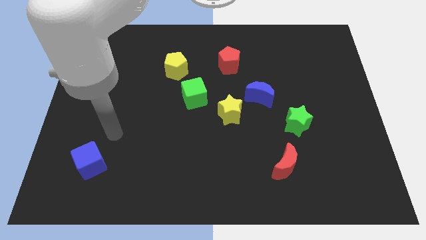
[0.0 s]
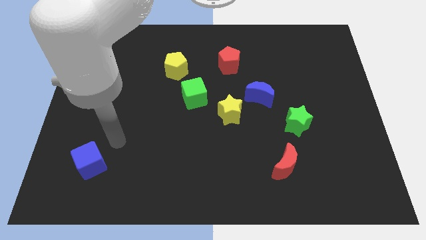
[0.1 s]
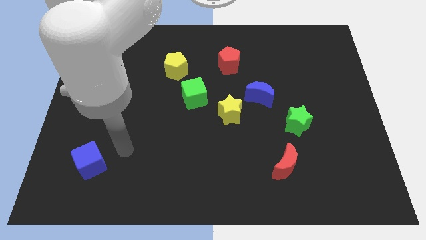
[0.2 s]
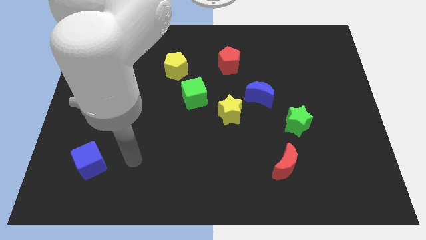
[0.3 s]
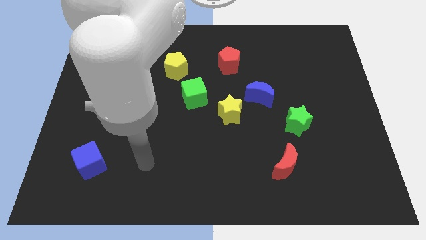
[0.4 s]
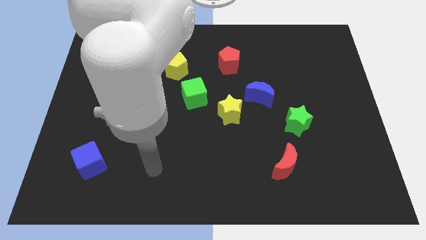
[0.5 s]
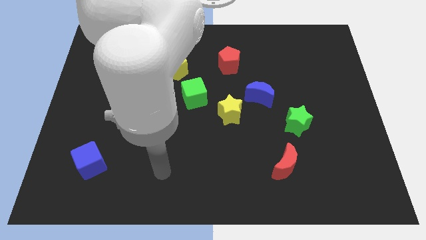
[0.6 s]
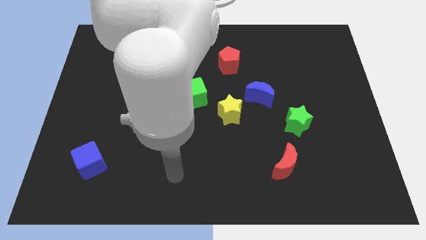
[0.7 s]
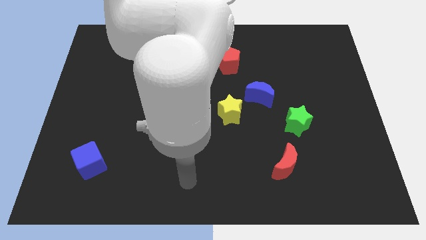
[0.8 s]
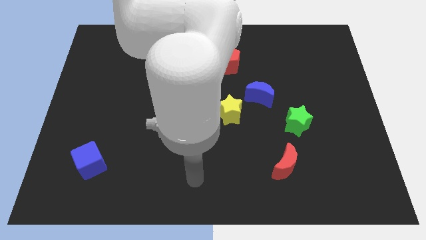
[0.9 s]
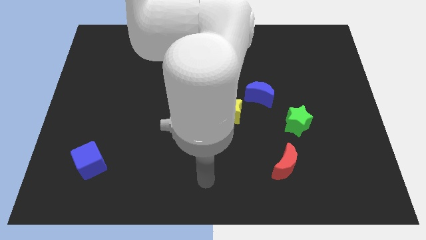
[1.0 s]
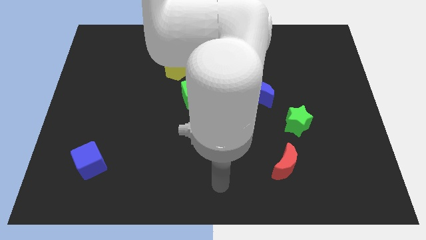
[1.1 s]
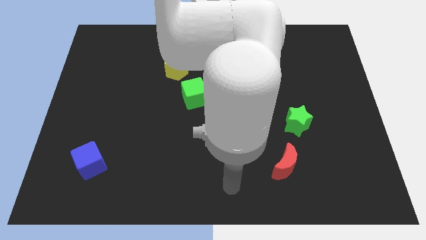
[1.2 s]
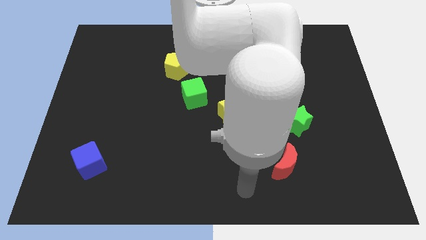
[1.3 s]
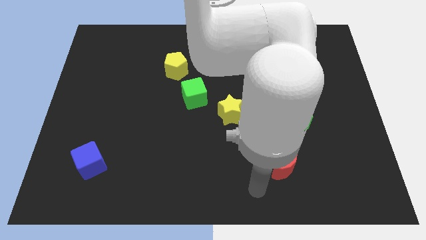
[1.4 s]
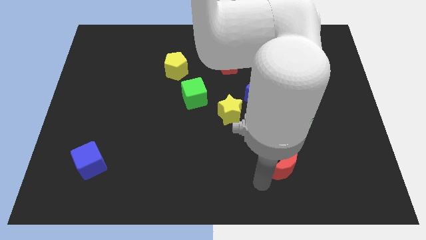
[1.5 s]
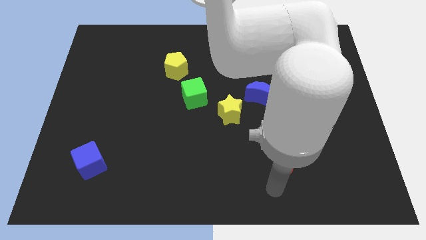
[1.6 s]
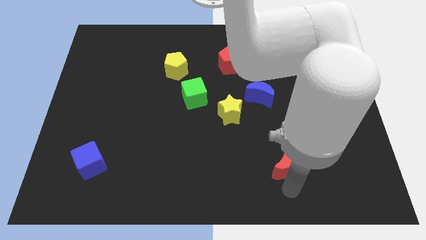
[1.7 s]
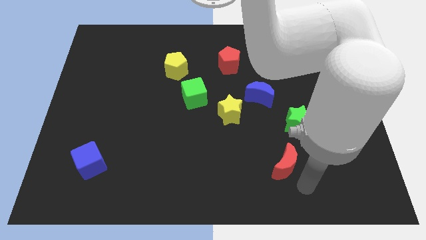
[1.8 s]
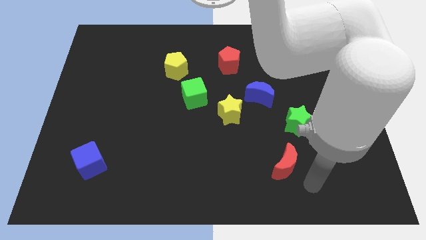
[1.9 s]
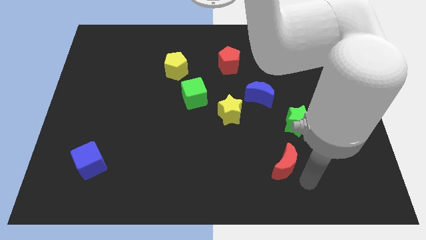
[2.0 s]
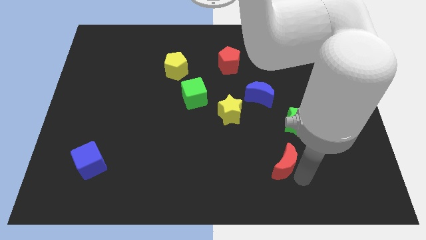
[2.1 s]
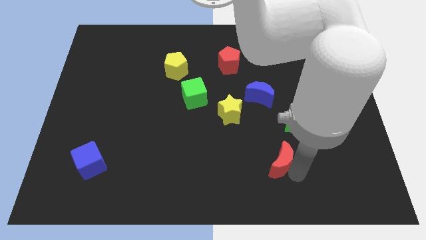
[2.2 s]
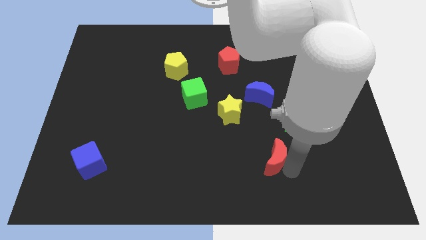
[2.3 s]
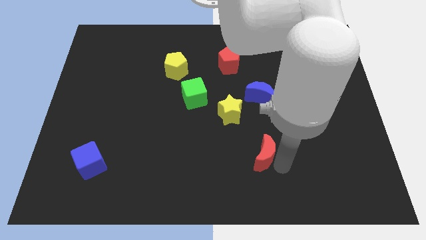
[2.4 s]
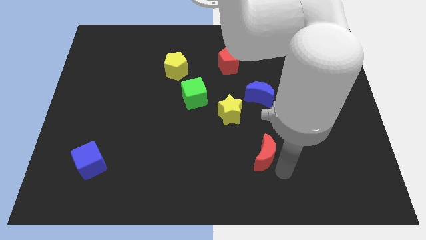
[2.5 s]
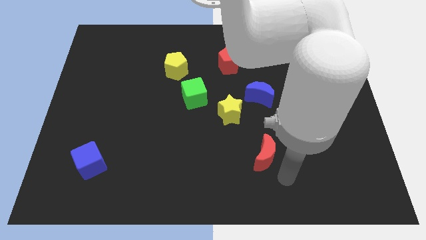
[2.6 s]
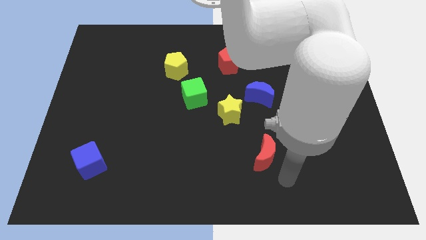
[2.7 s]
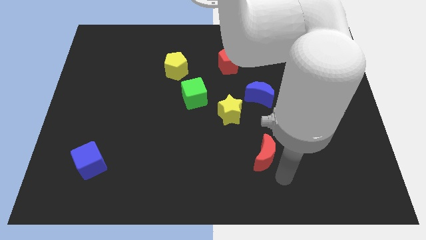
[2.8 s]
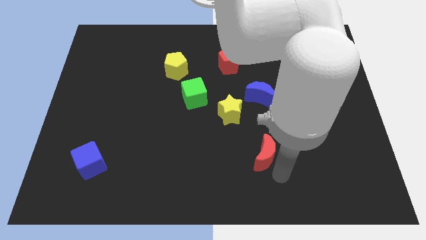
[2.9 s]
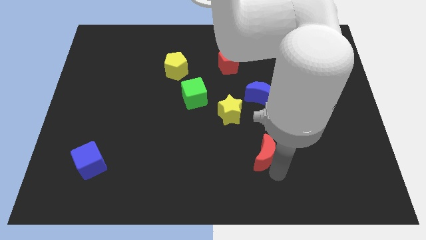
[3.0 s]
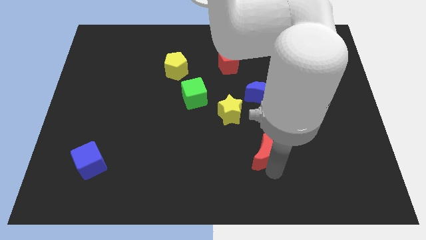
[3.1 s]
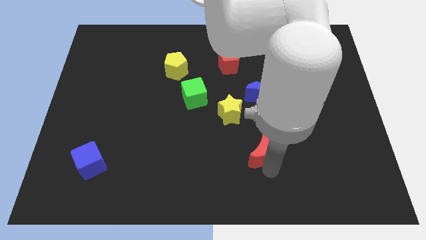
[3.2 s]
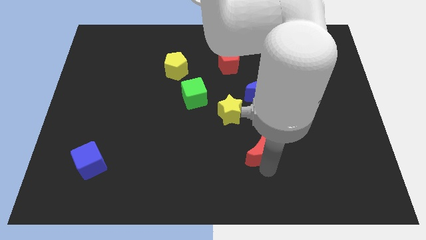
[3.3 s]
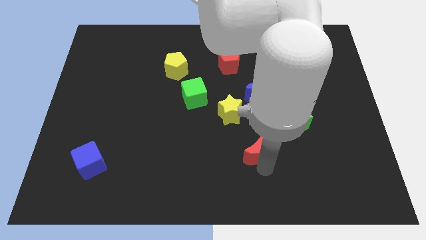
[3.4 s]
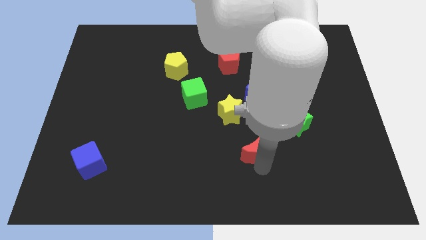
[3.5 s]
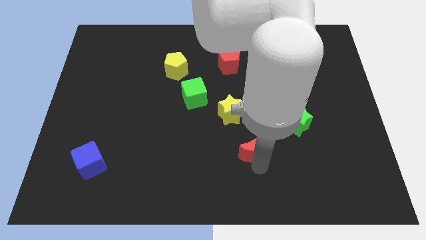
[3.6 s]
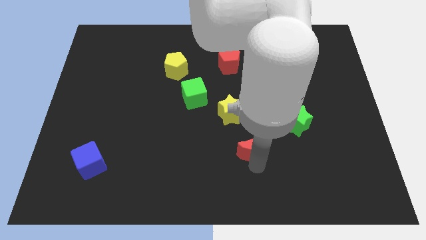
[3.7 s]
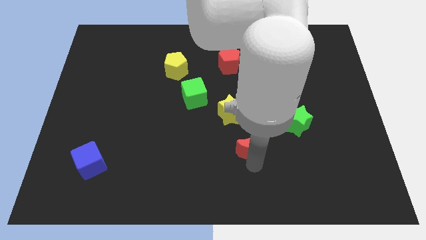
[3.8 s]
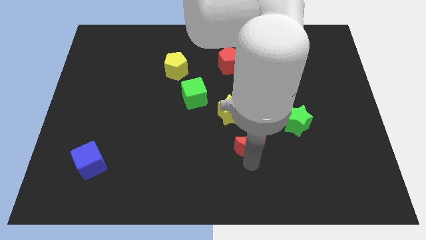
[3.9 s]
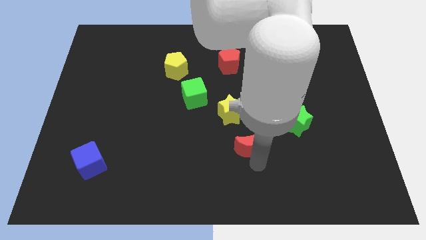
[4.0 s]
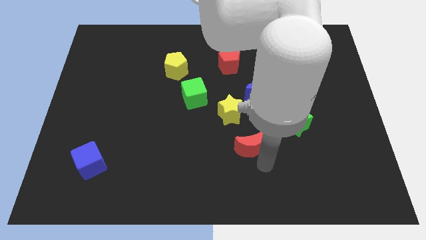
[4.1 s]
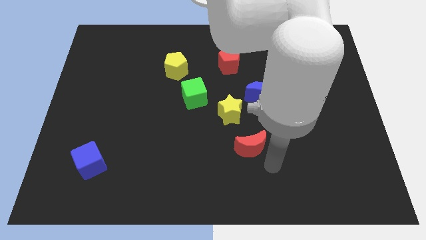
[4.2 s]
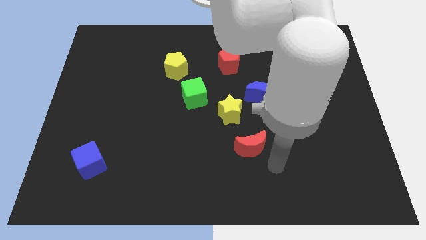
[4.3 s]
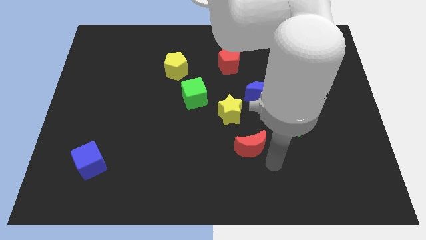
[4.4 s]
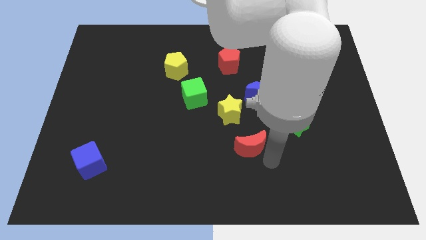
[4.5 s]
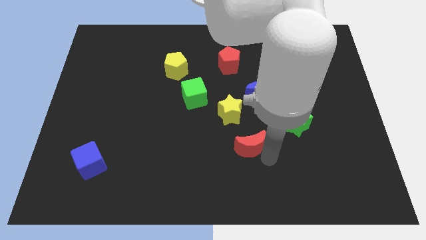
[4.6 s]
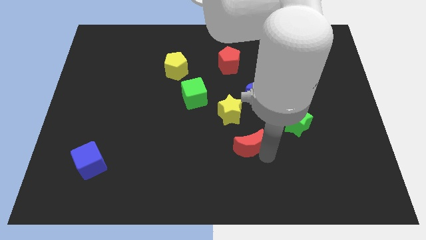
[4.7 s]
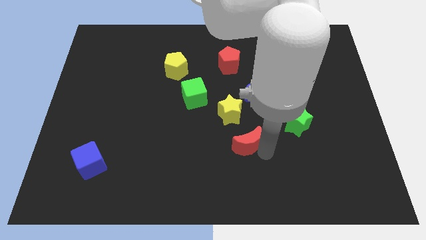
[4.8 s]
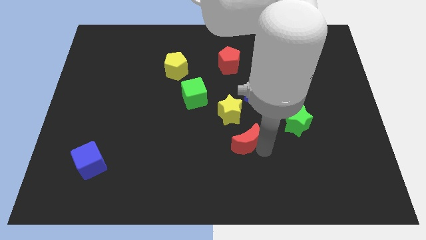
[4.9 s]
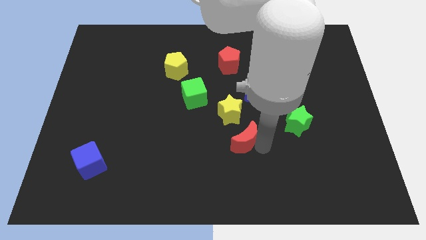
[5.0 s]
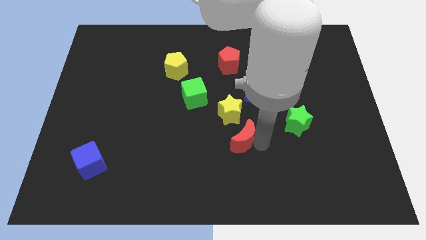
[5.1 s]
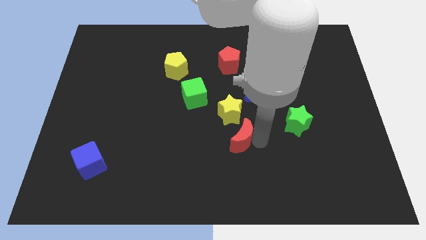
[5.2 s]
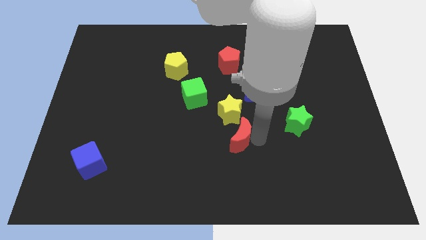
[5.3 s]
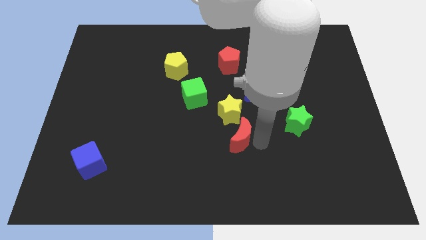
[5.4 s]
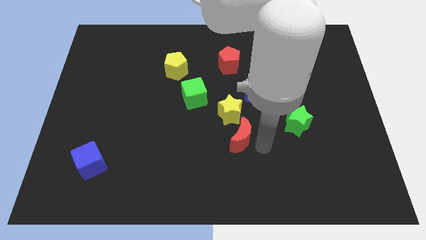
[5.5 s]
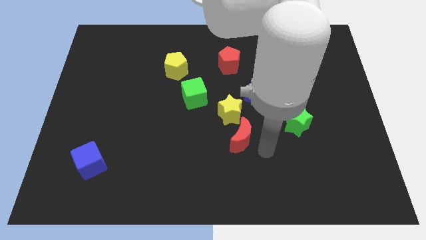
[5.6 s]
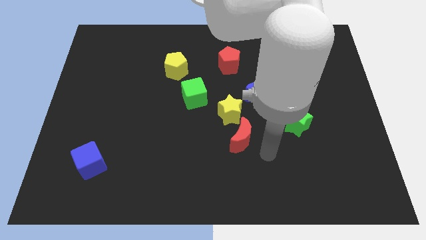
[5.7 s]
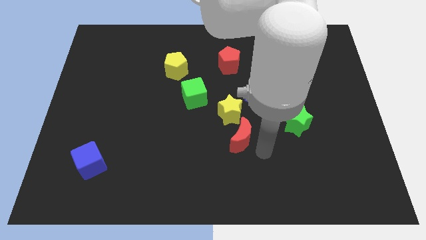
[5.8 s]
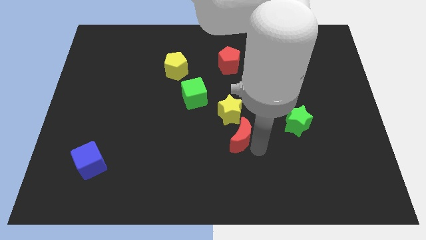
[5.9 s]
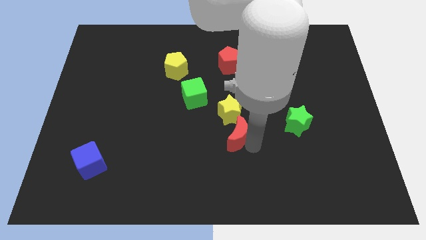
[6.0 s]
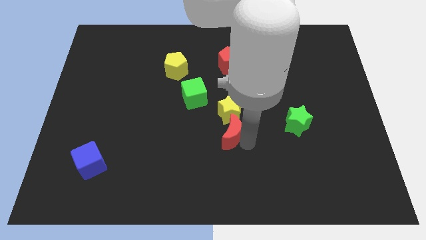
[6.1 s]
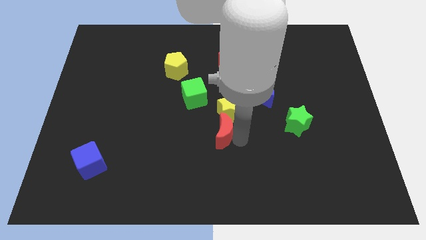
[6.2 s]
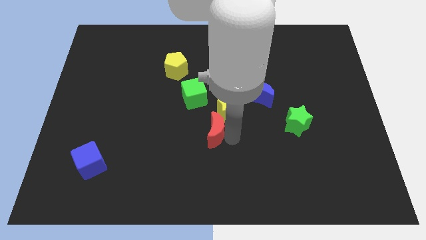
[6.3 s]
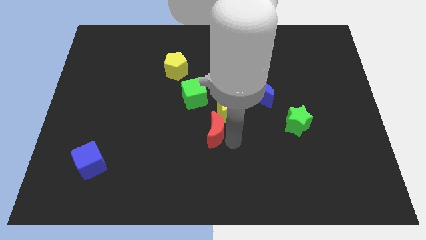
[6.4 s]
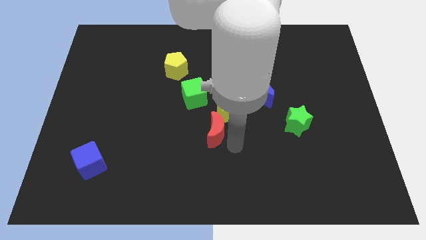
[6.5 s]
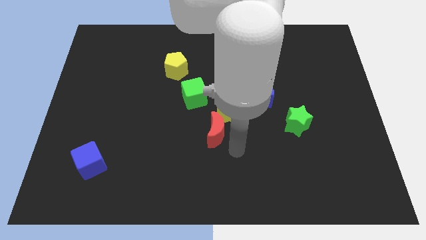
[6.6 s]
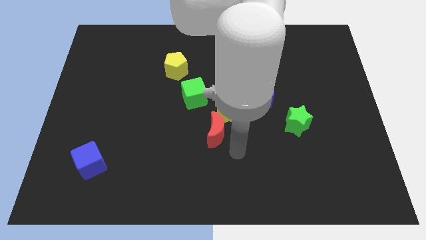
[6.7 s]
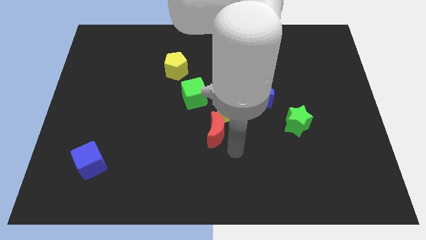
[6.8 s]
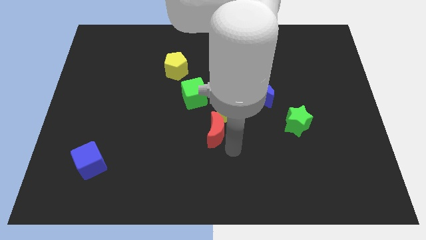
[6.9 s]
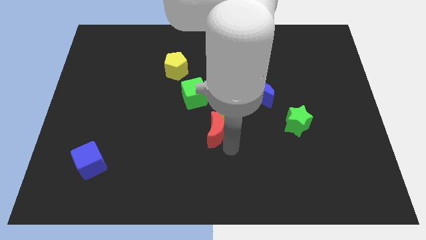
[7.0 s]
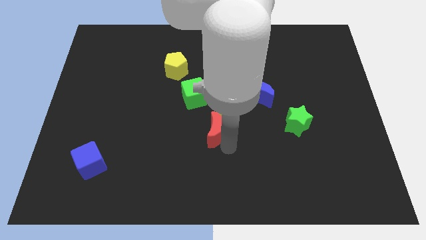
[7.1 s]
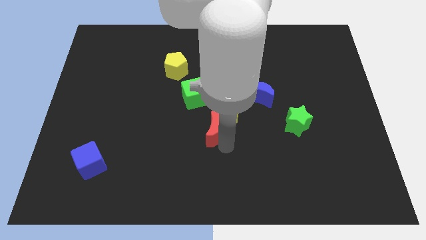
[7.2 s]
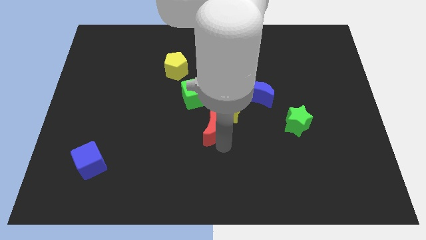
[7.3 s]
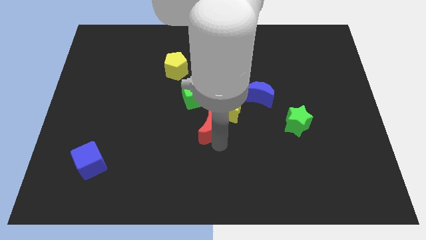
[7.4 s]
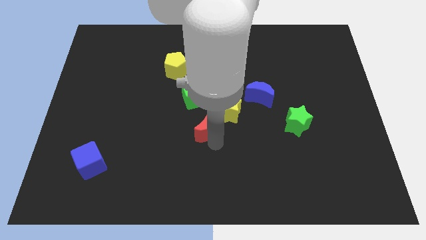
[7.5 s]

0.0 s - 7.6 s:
move the red moon to the left of the yellow star
